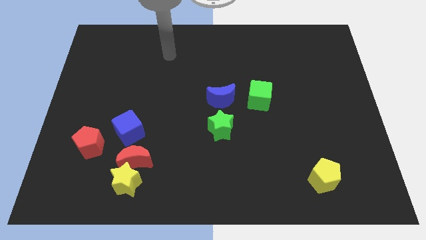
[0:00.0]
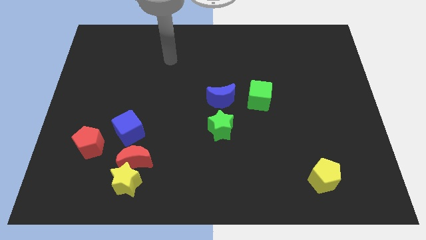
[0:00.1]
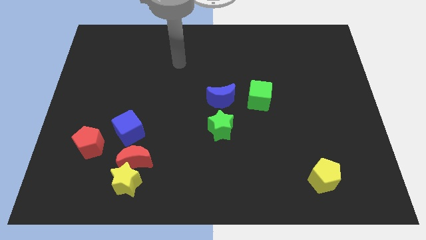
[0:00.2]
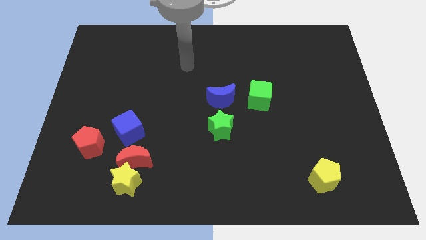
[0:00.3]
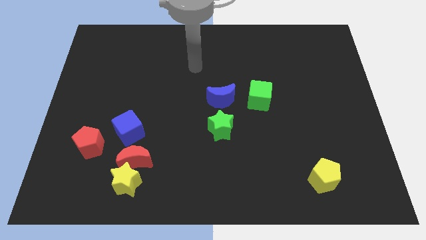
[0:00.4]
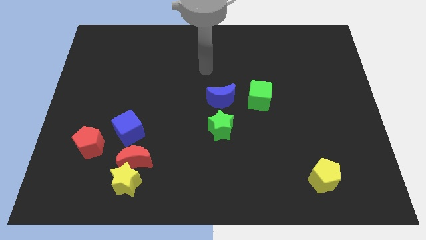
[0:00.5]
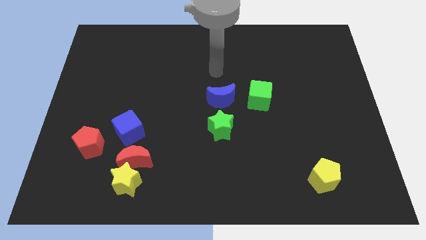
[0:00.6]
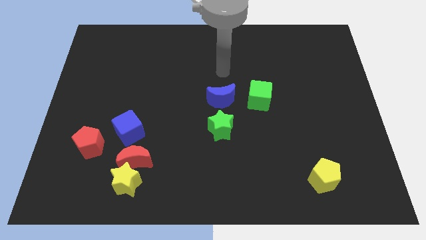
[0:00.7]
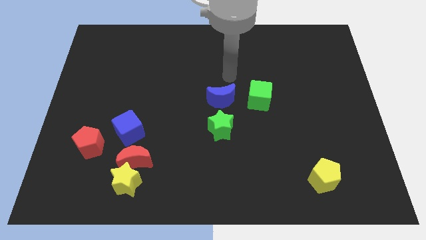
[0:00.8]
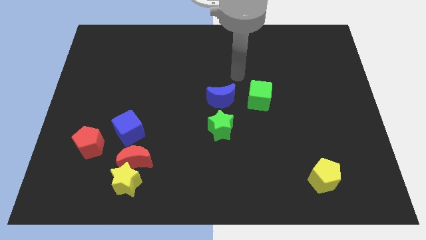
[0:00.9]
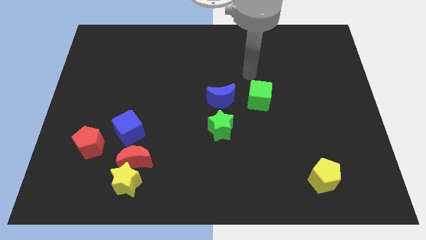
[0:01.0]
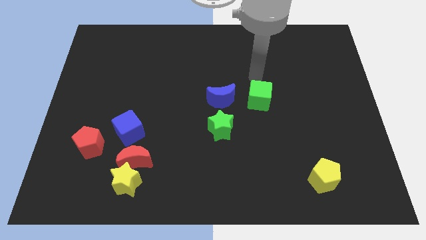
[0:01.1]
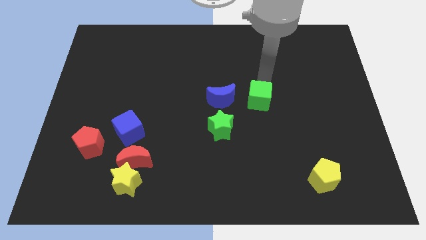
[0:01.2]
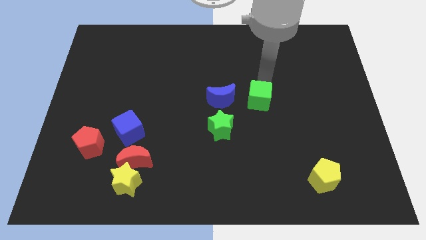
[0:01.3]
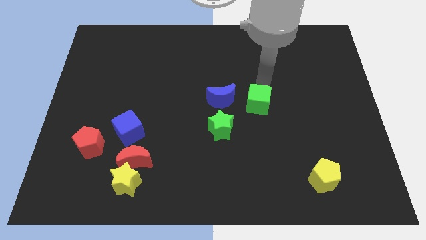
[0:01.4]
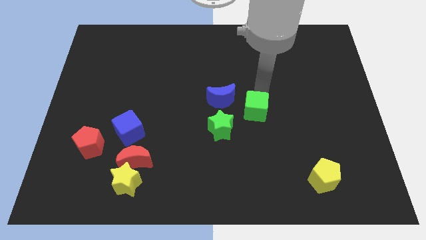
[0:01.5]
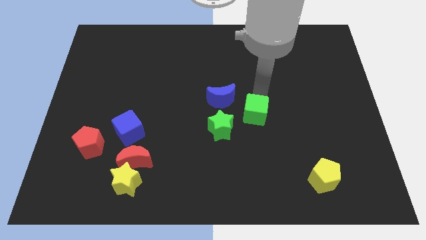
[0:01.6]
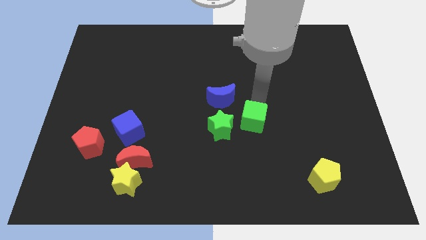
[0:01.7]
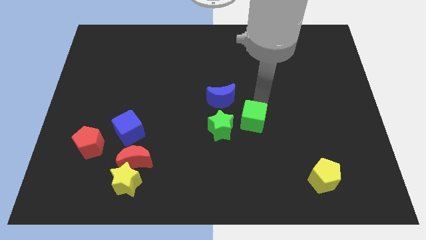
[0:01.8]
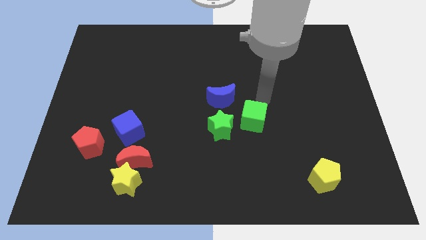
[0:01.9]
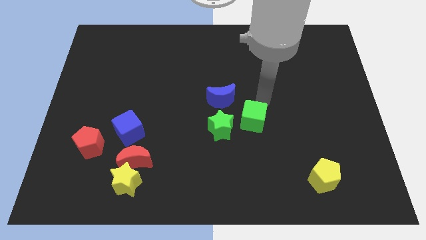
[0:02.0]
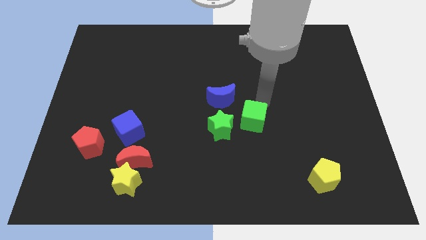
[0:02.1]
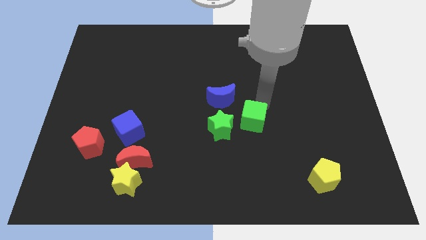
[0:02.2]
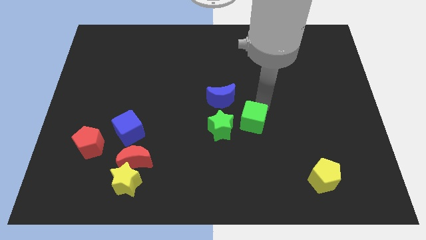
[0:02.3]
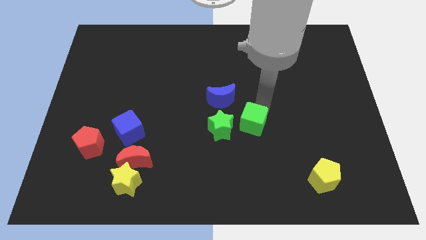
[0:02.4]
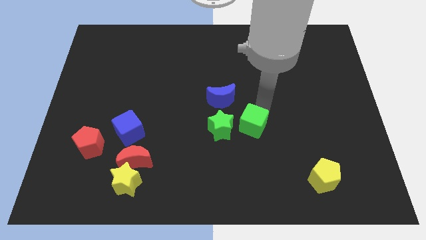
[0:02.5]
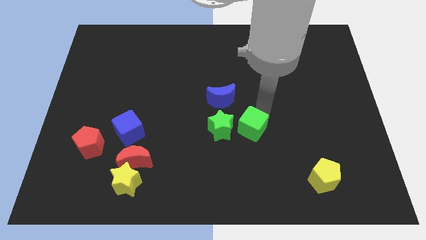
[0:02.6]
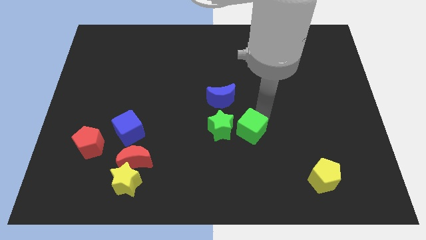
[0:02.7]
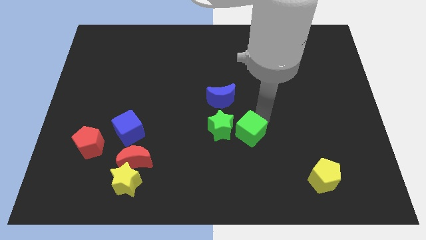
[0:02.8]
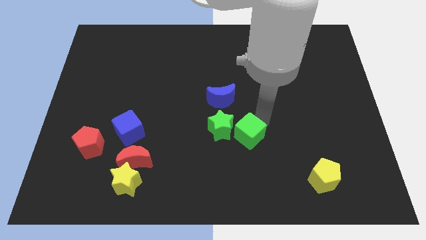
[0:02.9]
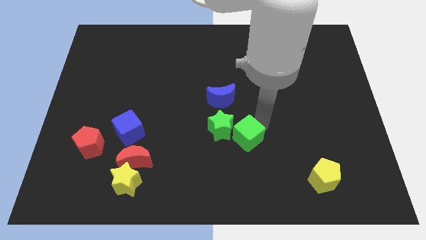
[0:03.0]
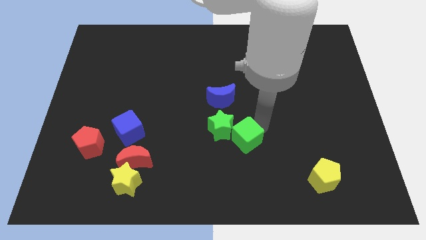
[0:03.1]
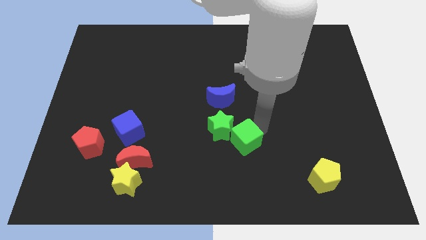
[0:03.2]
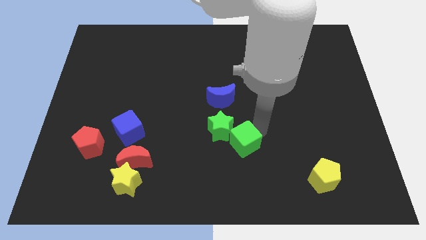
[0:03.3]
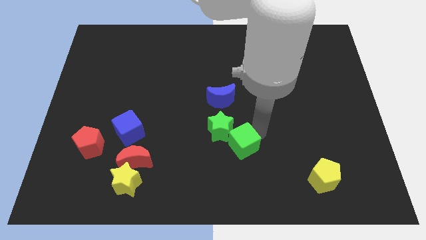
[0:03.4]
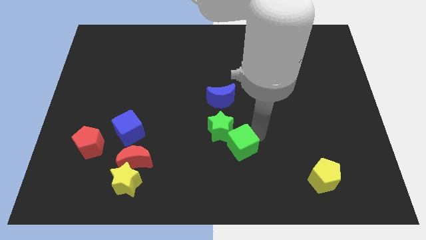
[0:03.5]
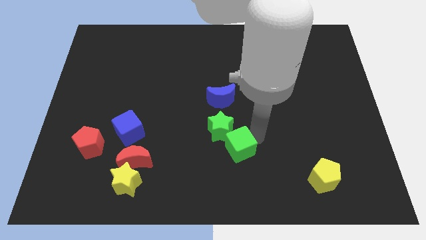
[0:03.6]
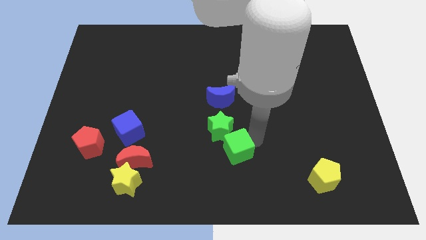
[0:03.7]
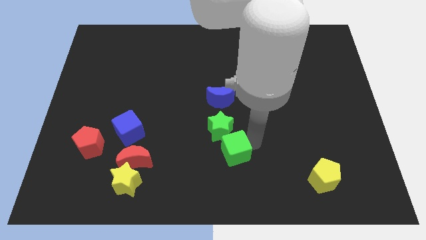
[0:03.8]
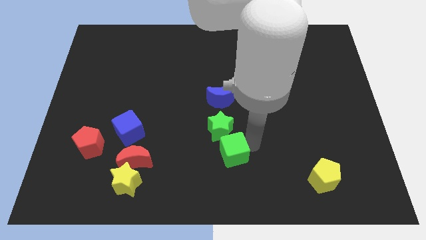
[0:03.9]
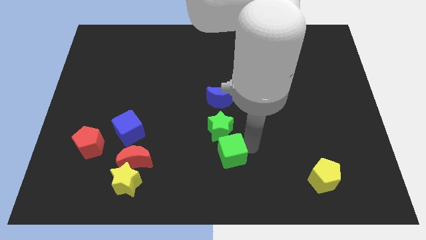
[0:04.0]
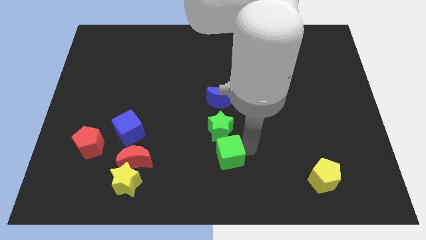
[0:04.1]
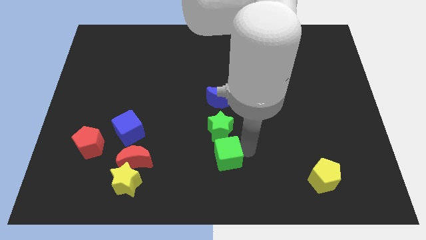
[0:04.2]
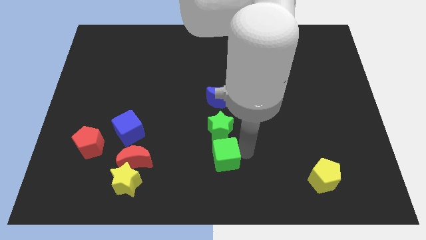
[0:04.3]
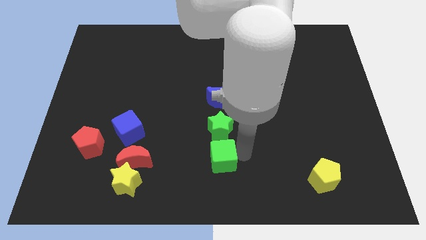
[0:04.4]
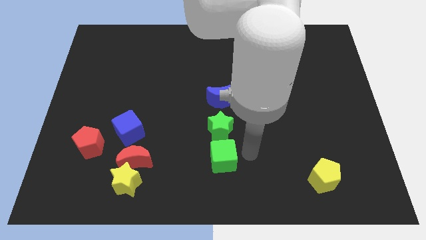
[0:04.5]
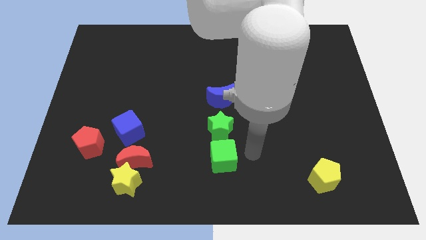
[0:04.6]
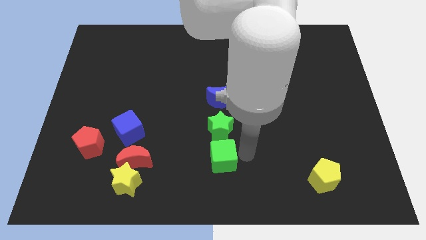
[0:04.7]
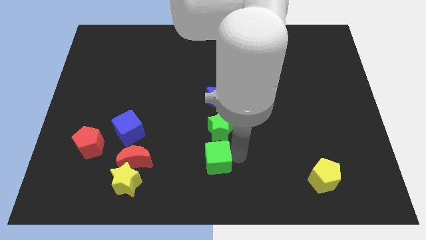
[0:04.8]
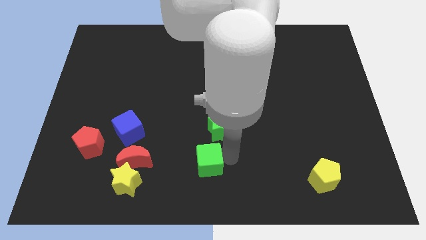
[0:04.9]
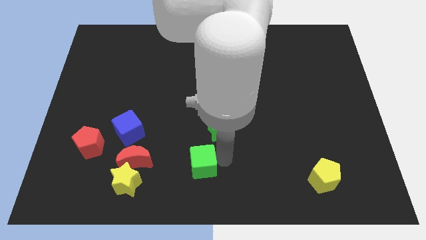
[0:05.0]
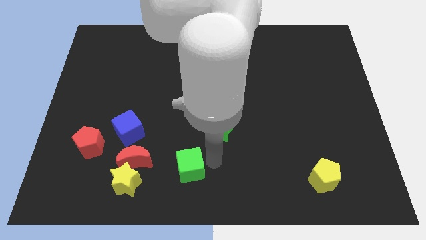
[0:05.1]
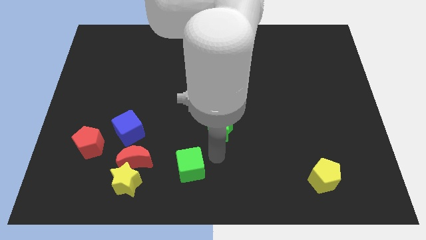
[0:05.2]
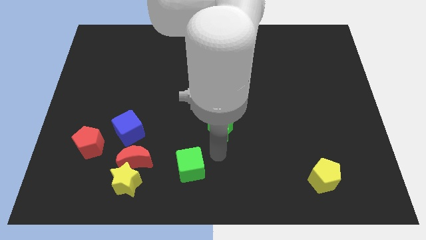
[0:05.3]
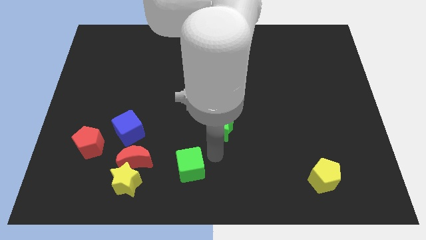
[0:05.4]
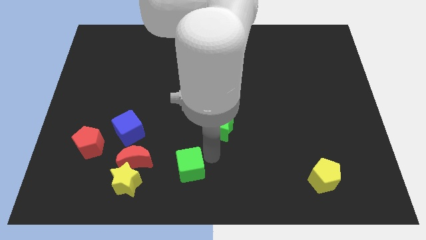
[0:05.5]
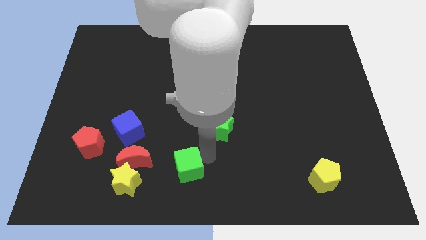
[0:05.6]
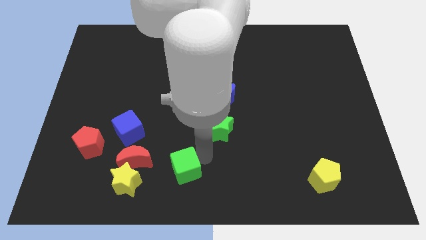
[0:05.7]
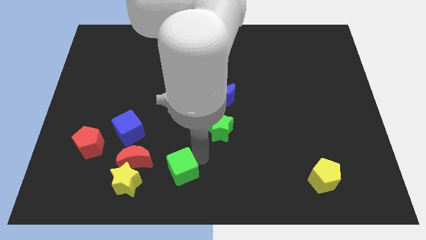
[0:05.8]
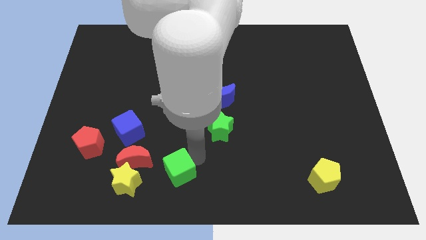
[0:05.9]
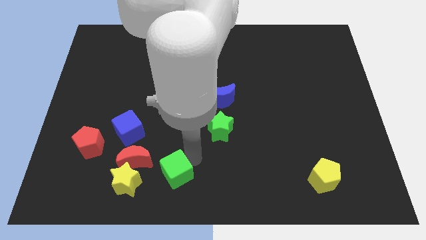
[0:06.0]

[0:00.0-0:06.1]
slide the green cube to the bottom right side of the red moon

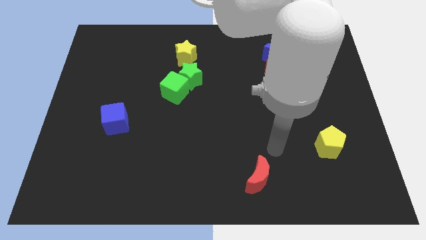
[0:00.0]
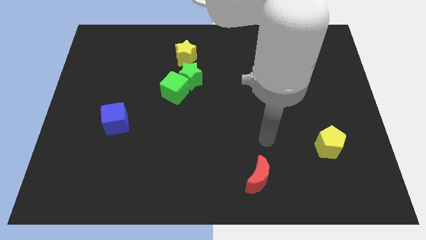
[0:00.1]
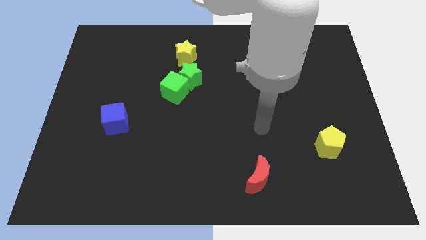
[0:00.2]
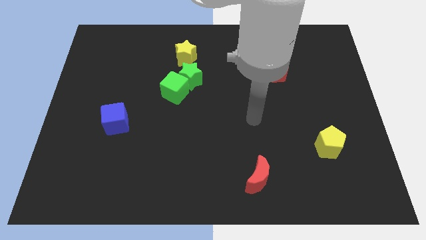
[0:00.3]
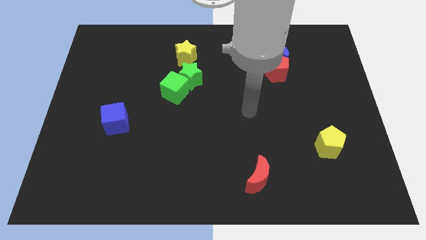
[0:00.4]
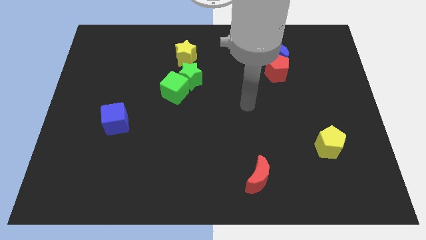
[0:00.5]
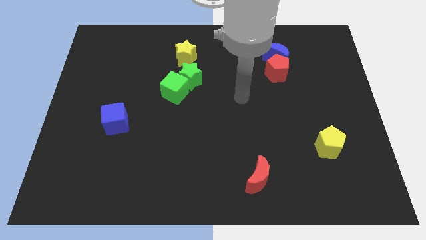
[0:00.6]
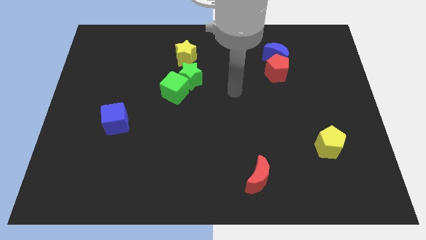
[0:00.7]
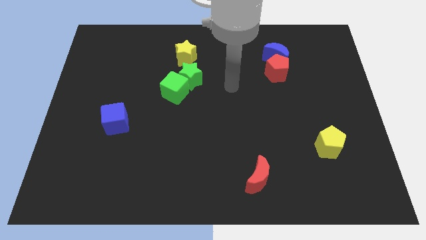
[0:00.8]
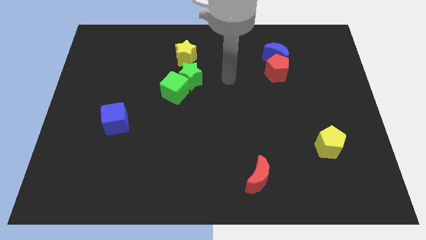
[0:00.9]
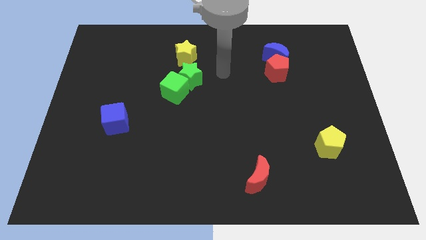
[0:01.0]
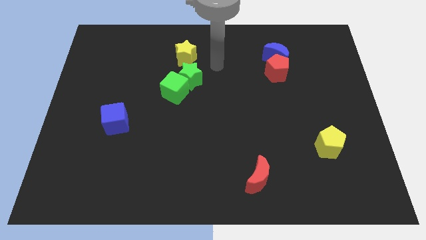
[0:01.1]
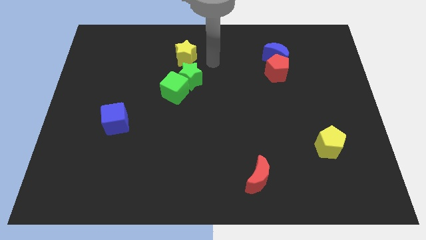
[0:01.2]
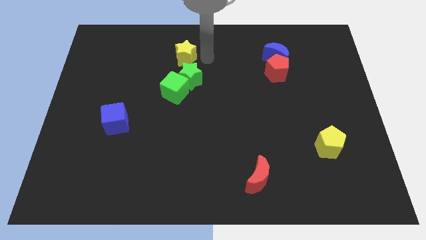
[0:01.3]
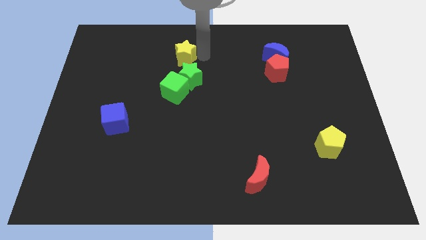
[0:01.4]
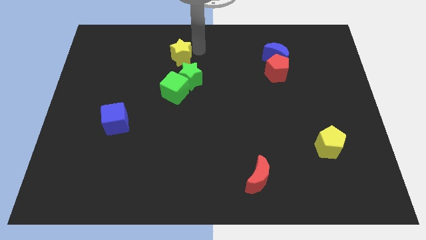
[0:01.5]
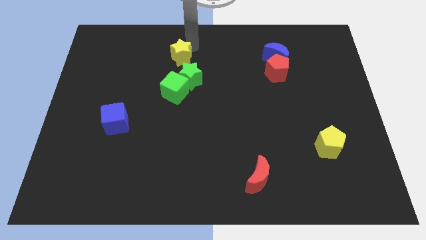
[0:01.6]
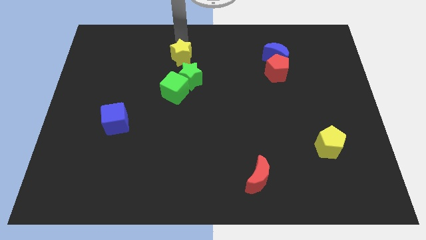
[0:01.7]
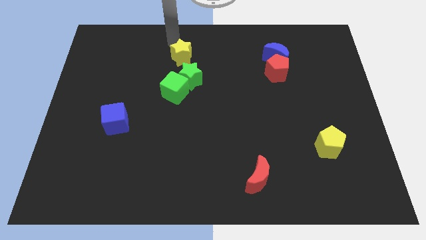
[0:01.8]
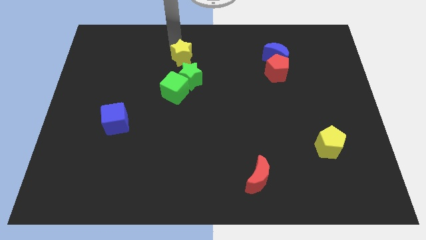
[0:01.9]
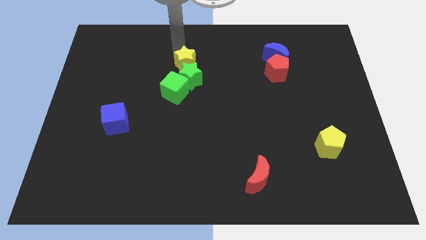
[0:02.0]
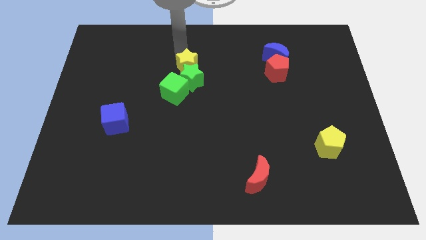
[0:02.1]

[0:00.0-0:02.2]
slide the yellow star diagonally up and to the right of the green cube
